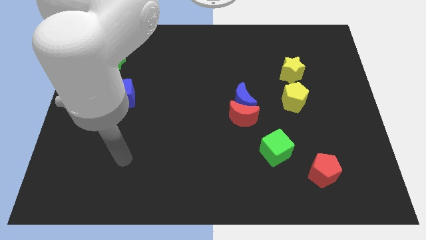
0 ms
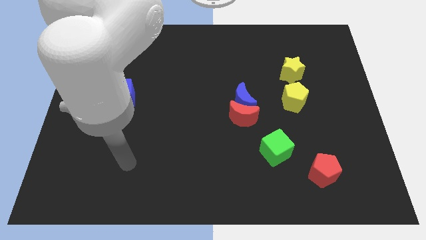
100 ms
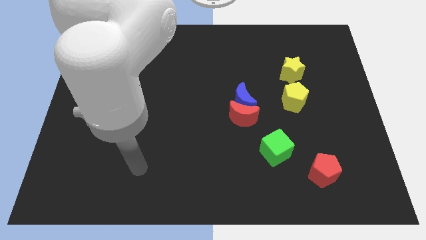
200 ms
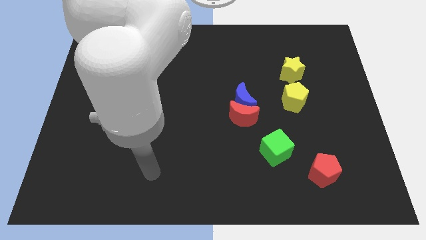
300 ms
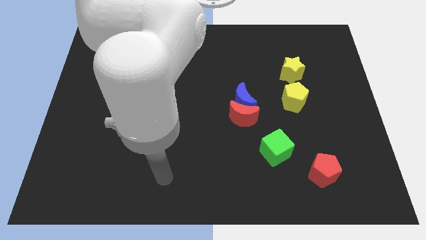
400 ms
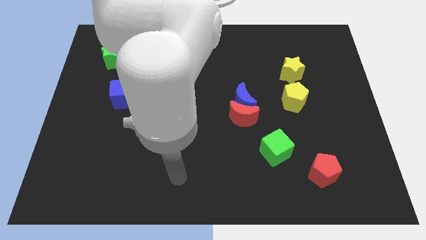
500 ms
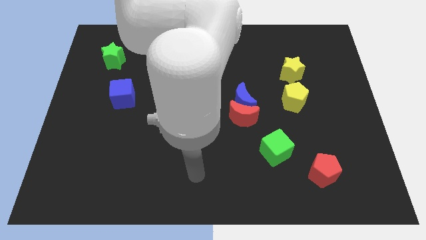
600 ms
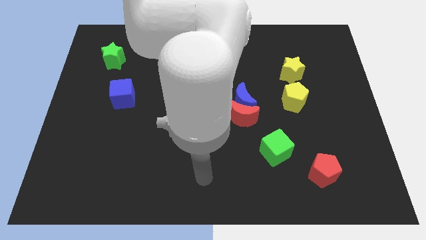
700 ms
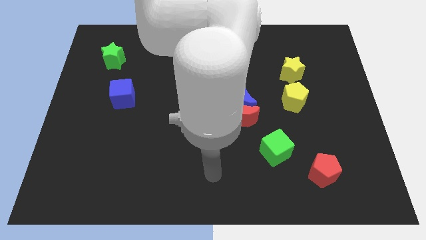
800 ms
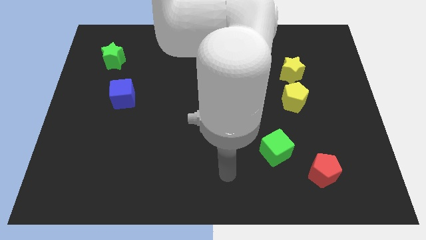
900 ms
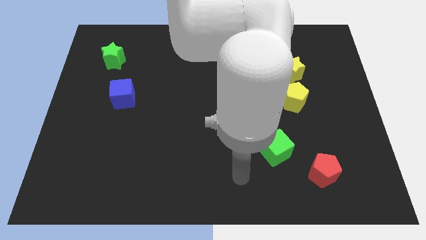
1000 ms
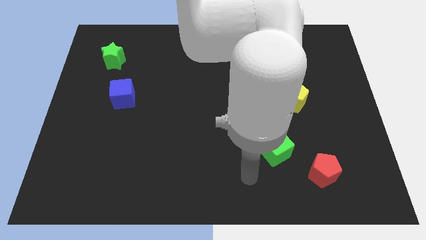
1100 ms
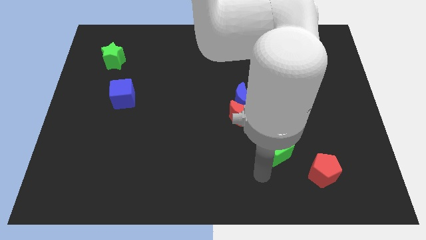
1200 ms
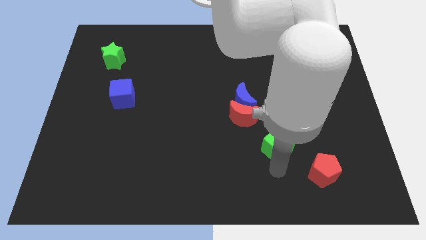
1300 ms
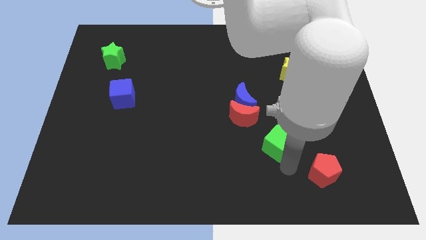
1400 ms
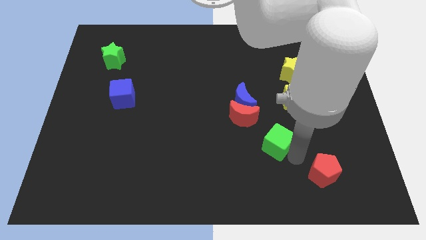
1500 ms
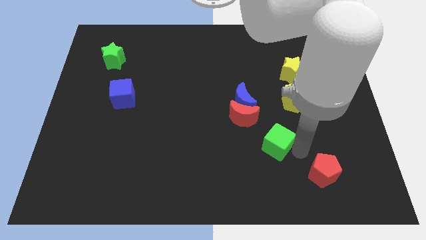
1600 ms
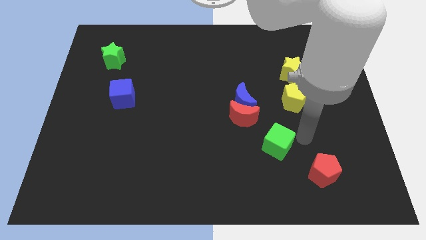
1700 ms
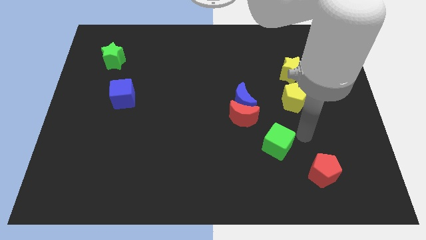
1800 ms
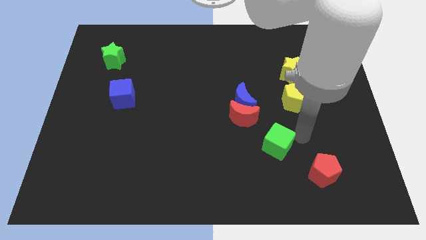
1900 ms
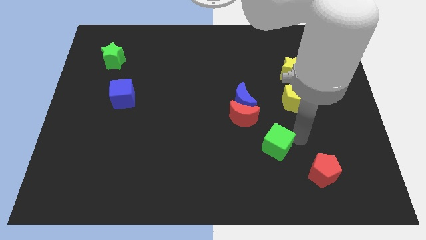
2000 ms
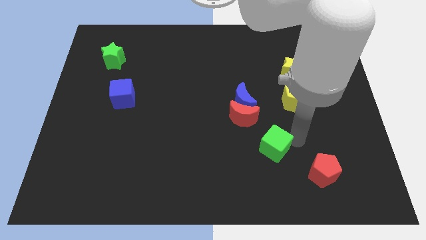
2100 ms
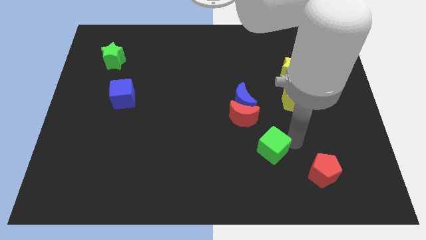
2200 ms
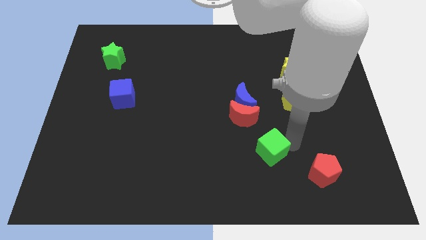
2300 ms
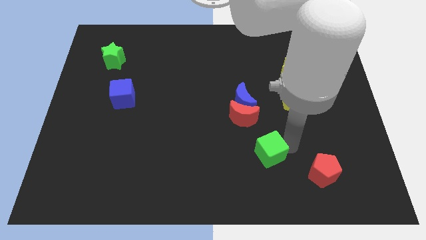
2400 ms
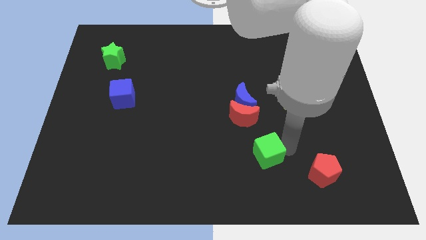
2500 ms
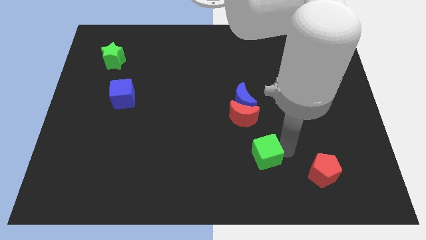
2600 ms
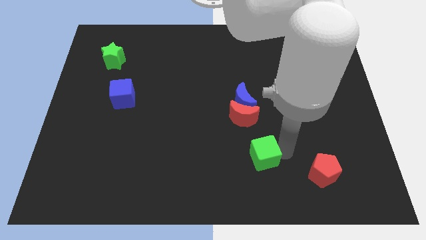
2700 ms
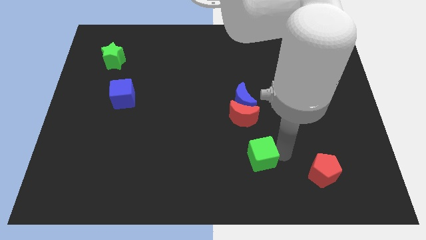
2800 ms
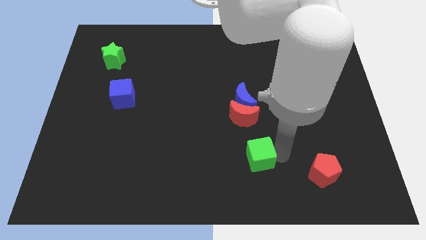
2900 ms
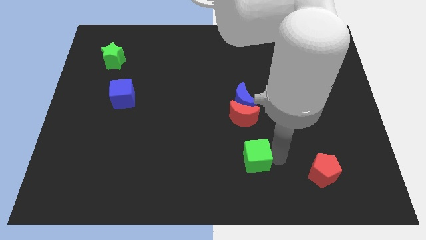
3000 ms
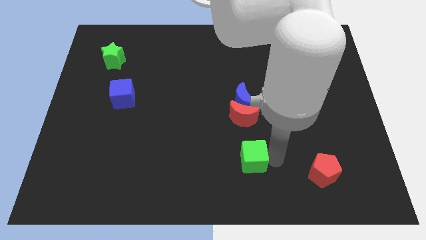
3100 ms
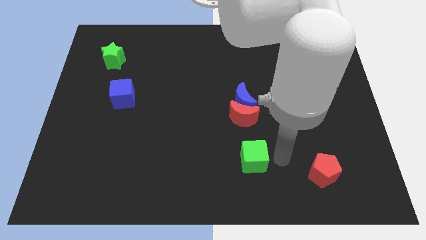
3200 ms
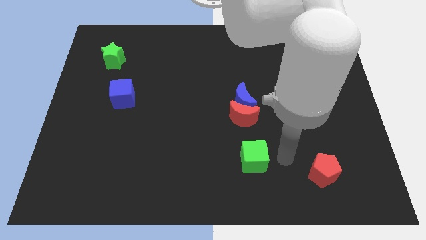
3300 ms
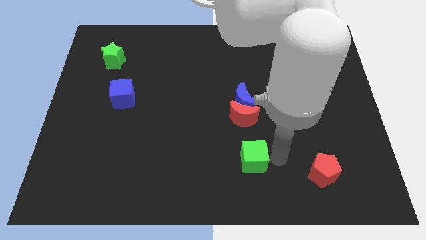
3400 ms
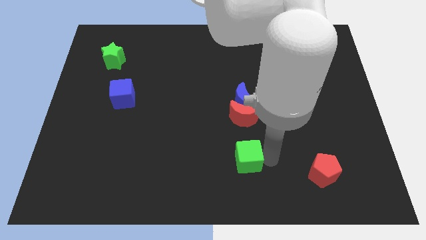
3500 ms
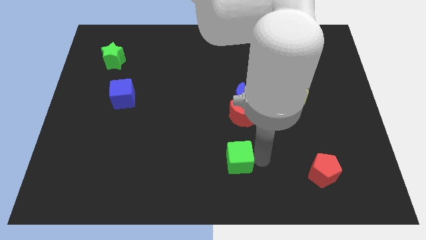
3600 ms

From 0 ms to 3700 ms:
slightly slide the green cube left

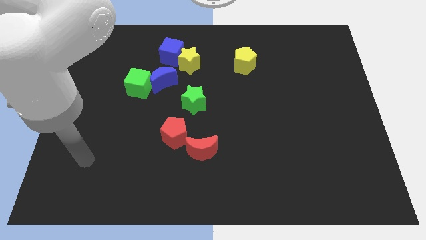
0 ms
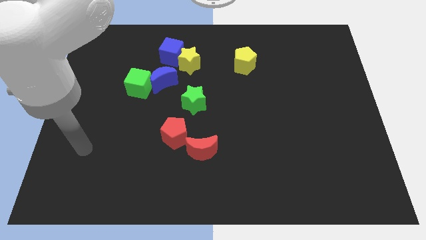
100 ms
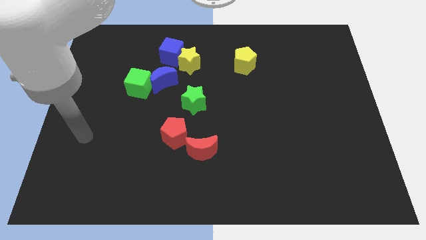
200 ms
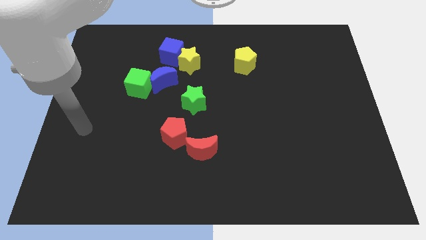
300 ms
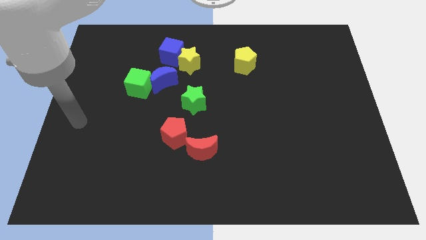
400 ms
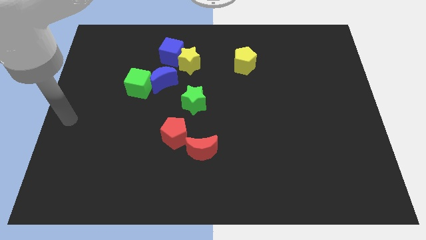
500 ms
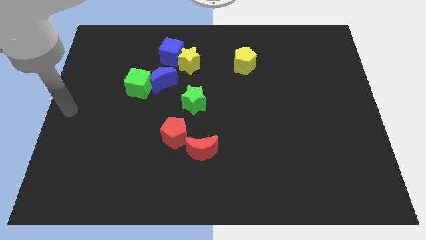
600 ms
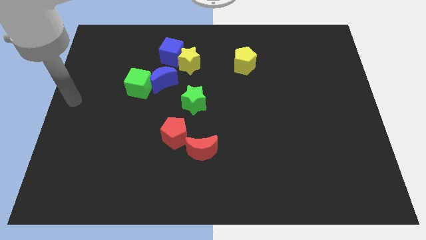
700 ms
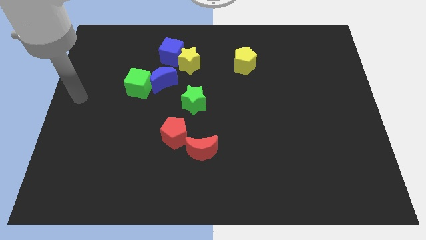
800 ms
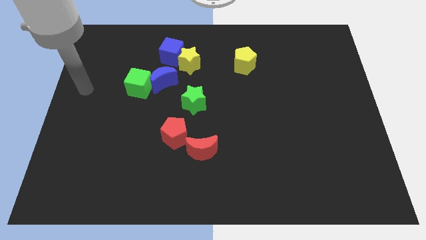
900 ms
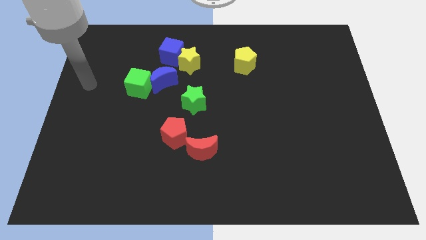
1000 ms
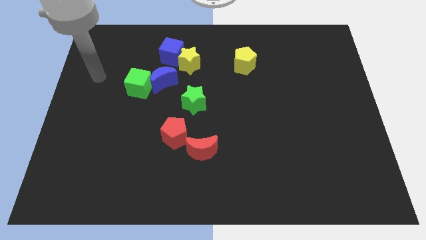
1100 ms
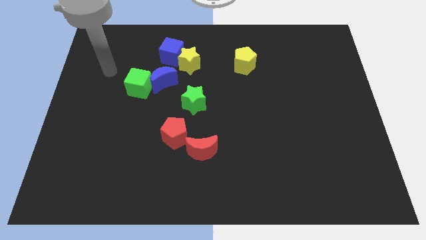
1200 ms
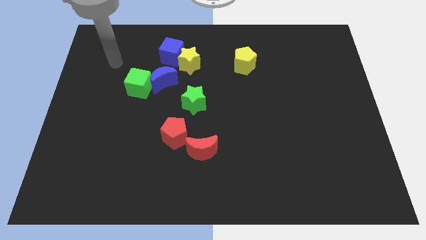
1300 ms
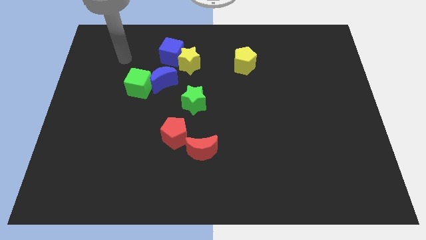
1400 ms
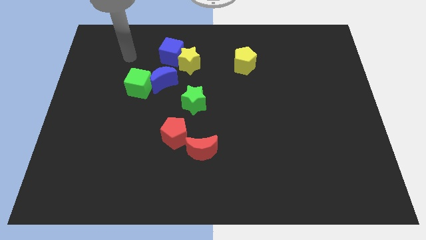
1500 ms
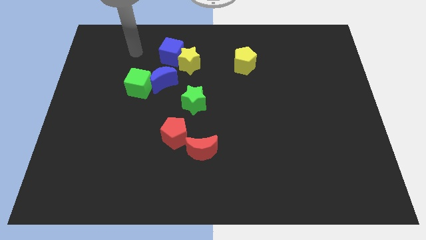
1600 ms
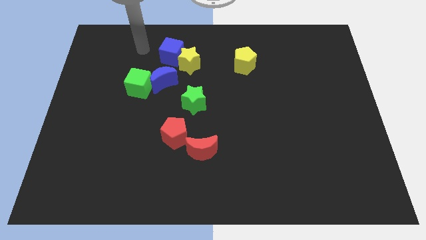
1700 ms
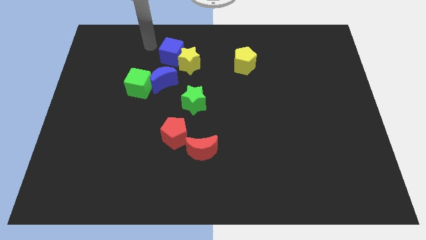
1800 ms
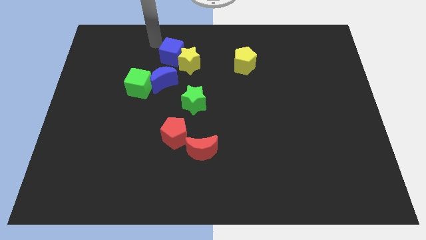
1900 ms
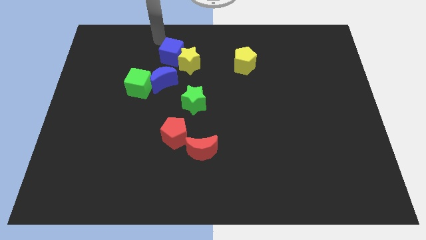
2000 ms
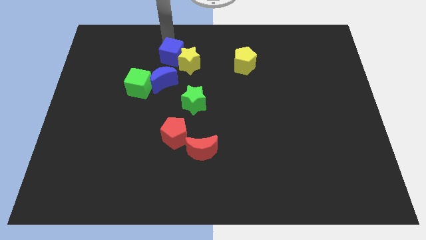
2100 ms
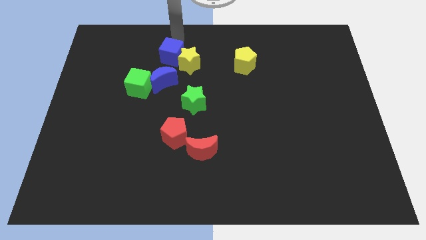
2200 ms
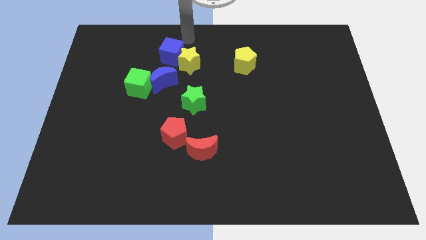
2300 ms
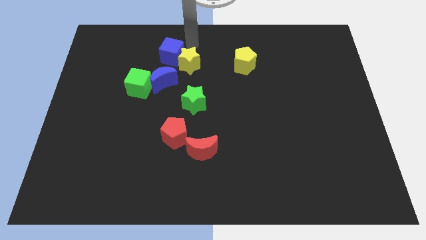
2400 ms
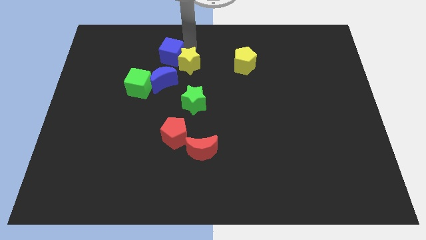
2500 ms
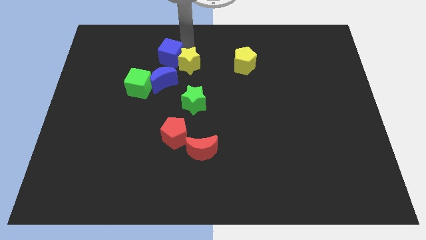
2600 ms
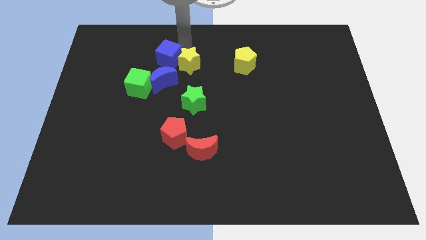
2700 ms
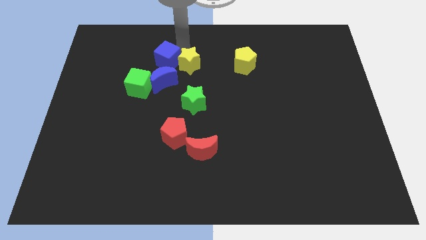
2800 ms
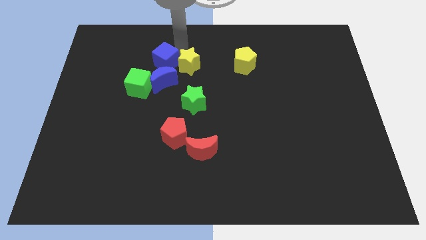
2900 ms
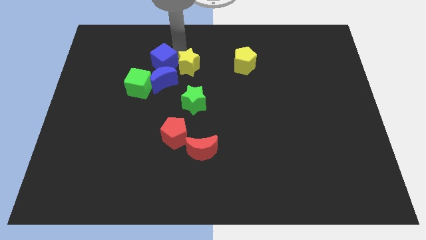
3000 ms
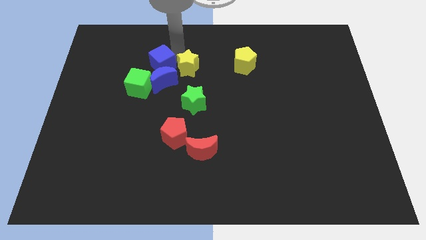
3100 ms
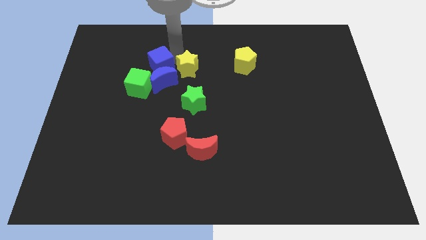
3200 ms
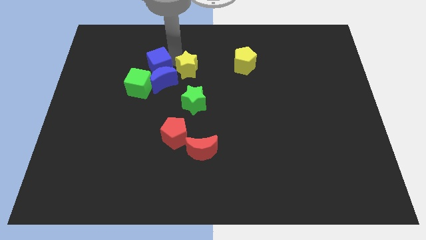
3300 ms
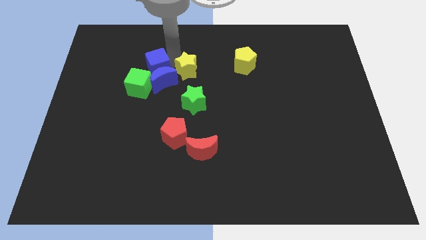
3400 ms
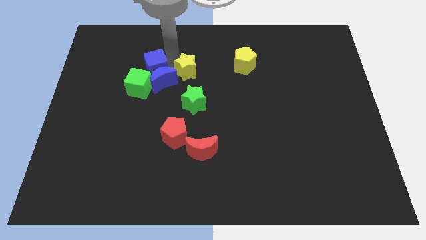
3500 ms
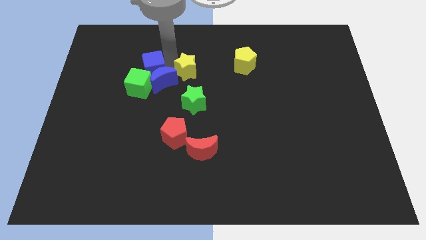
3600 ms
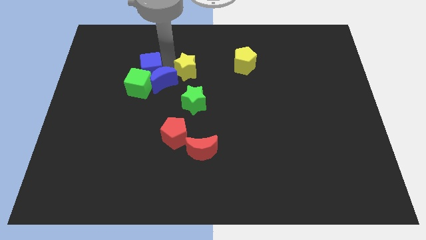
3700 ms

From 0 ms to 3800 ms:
slide the blue cube down and left slightly

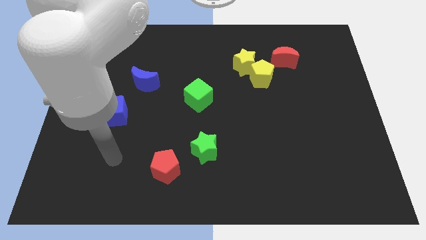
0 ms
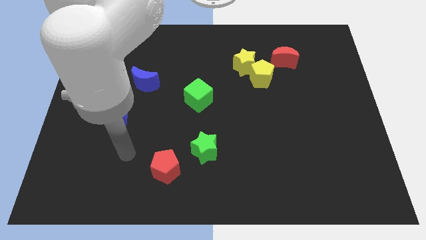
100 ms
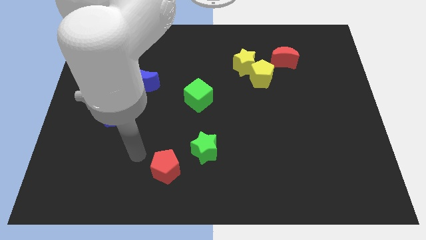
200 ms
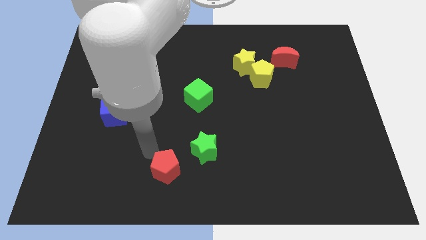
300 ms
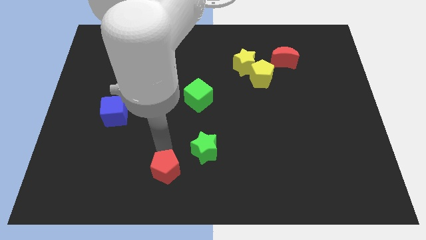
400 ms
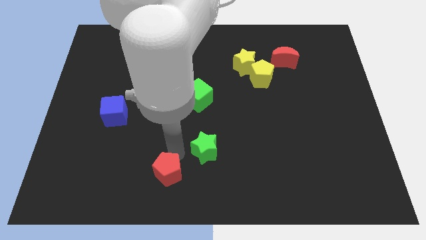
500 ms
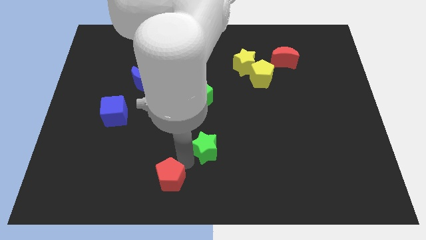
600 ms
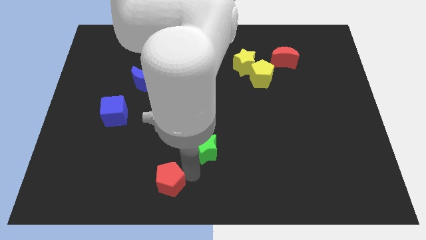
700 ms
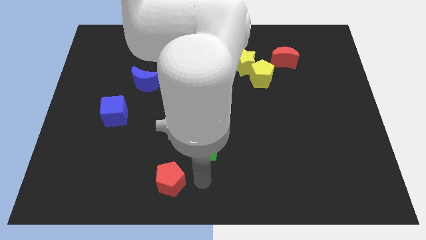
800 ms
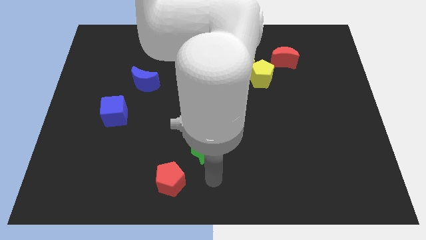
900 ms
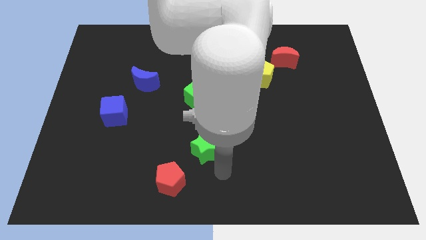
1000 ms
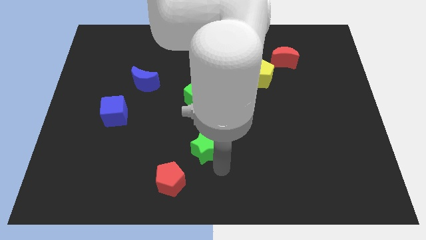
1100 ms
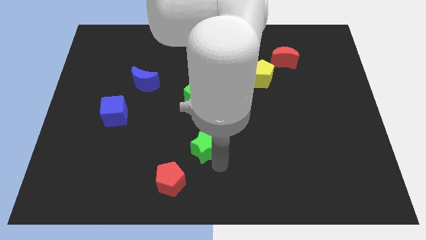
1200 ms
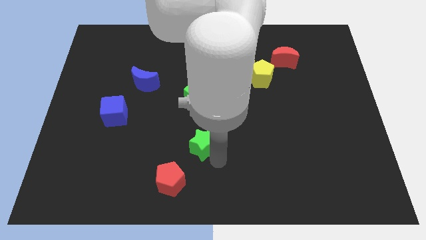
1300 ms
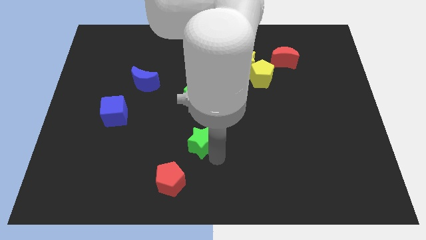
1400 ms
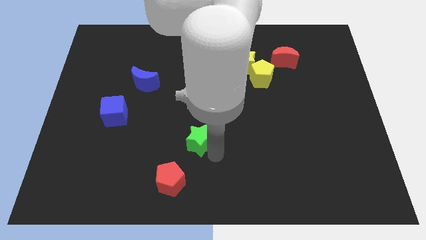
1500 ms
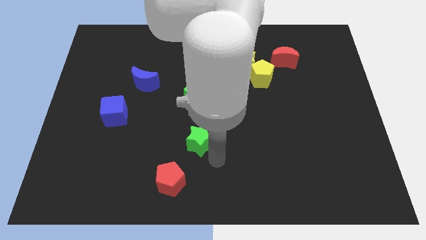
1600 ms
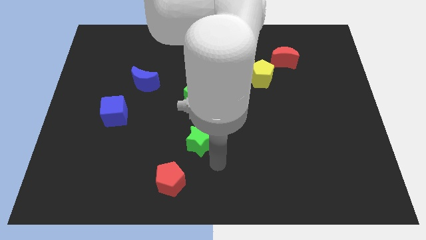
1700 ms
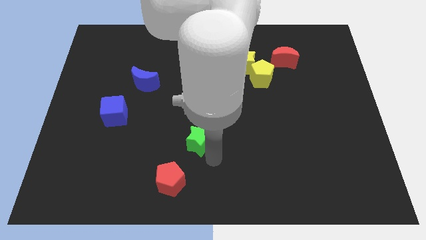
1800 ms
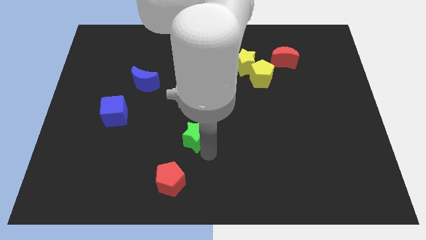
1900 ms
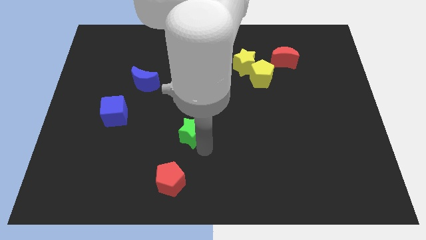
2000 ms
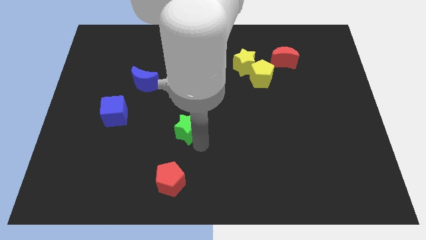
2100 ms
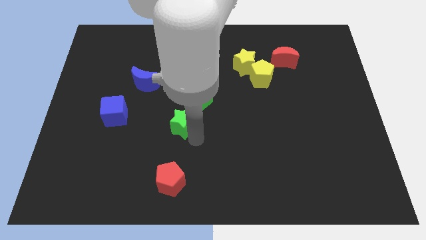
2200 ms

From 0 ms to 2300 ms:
slide the green star somewhat up and then left
